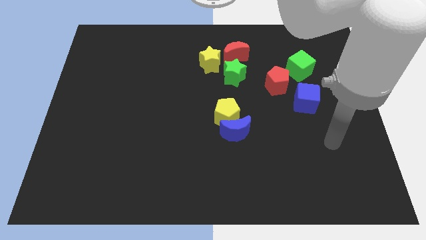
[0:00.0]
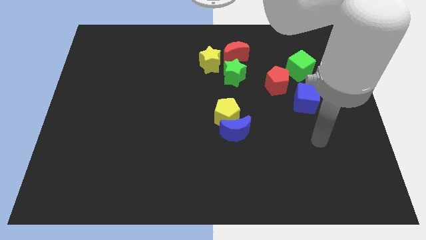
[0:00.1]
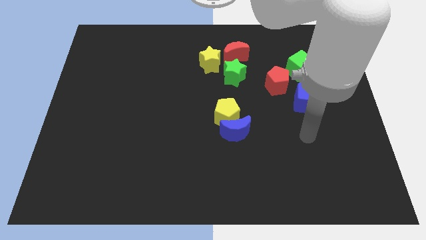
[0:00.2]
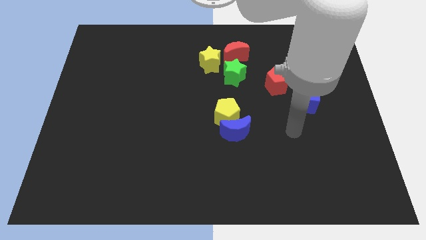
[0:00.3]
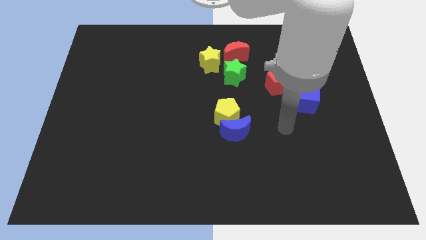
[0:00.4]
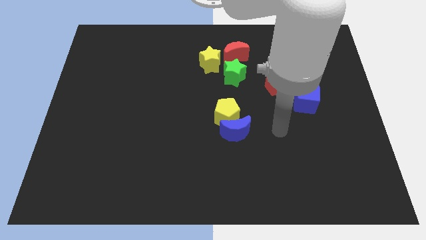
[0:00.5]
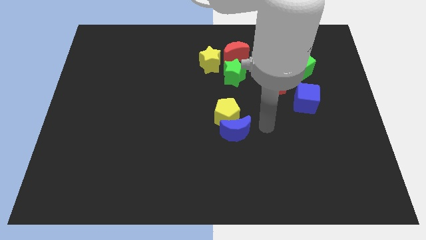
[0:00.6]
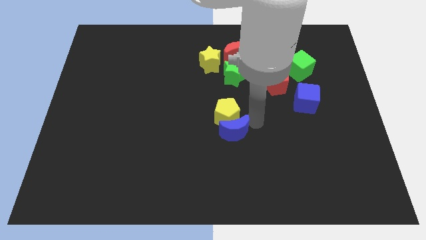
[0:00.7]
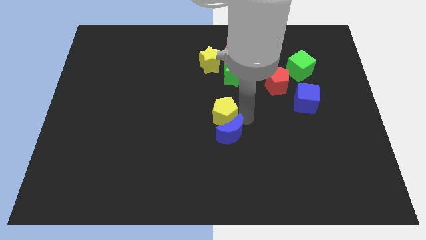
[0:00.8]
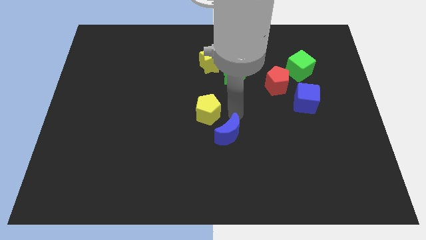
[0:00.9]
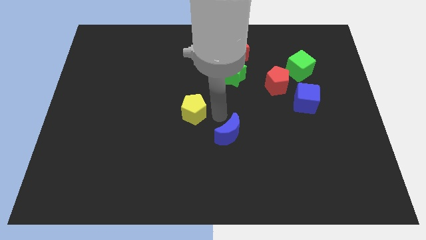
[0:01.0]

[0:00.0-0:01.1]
separate the blue moon from the yellow pentagon

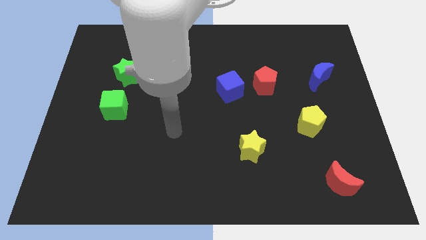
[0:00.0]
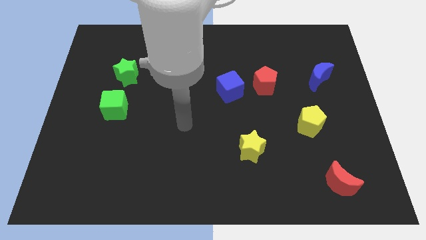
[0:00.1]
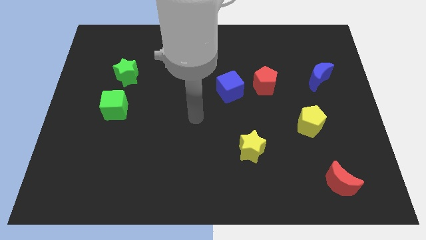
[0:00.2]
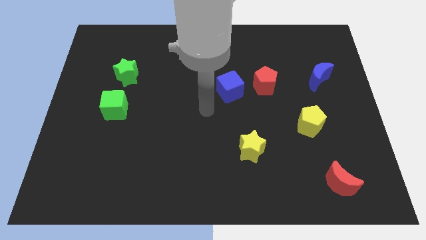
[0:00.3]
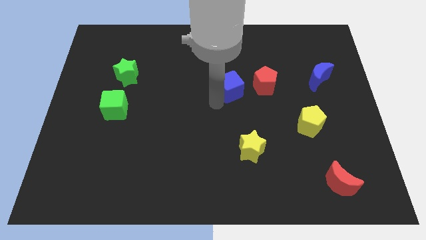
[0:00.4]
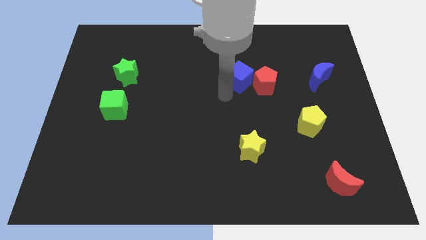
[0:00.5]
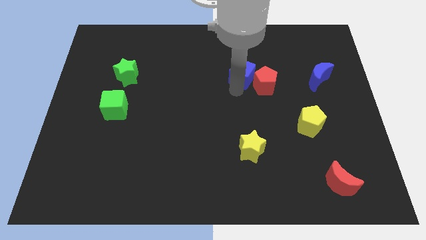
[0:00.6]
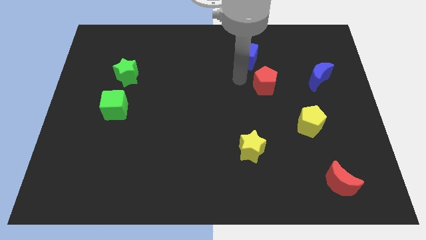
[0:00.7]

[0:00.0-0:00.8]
move the red pentagon away from the blue cube

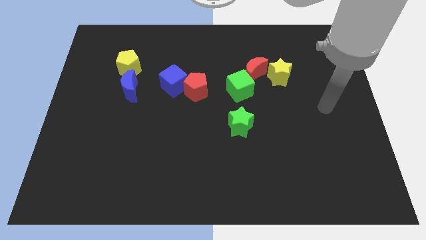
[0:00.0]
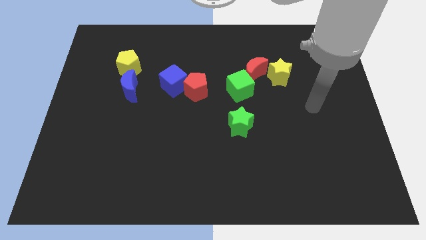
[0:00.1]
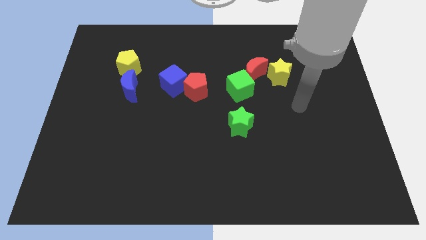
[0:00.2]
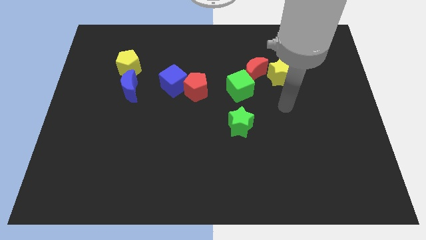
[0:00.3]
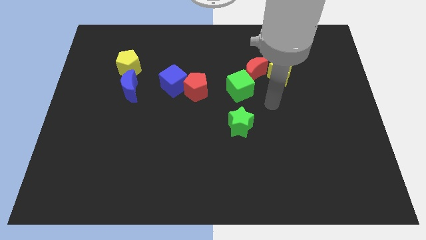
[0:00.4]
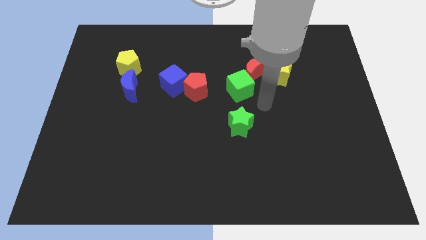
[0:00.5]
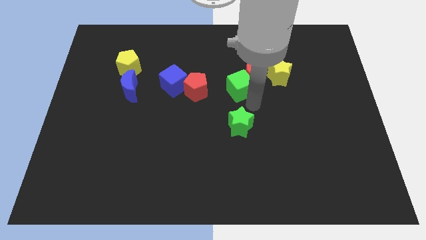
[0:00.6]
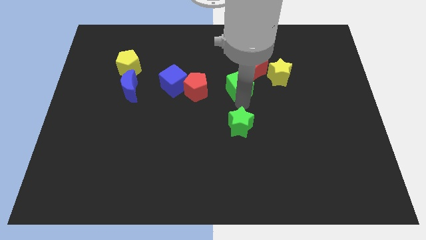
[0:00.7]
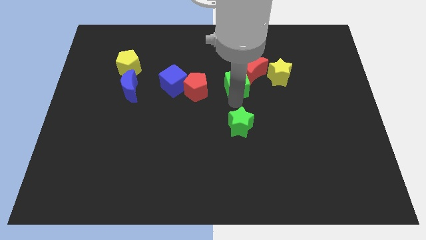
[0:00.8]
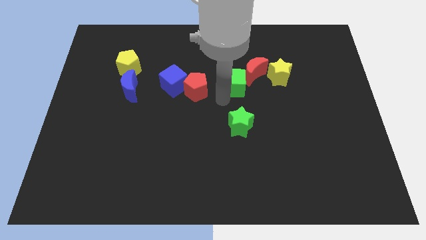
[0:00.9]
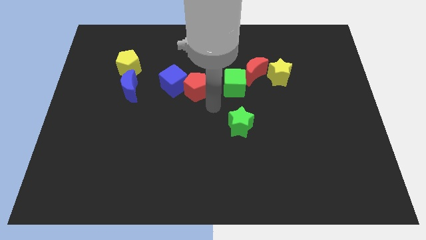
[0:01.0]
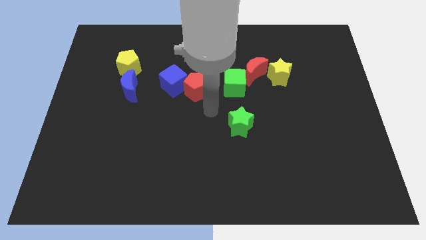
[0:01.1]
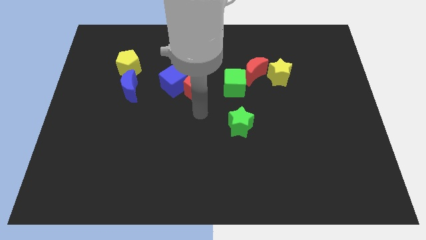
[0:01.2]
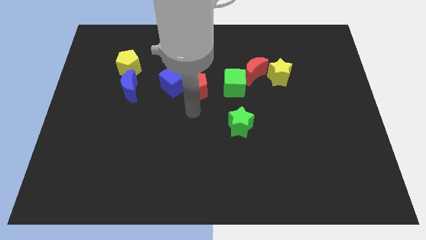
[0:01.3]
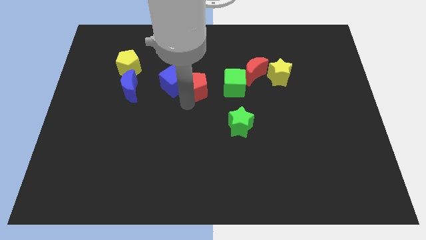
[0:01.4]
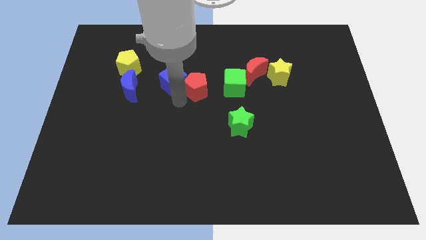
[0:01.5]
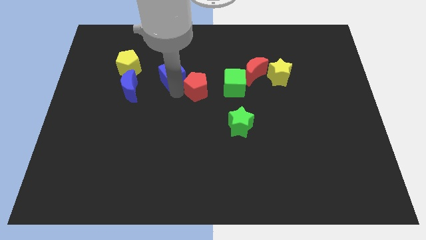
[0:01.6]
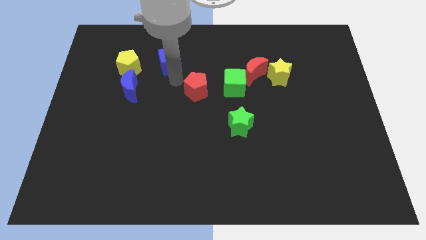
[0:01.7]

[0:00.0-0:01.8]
separate the red pentagon from the blue cube

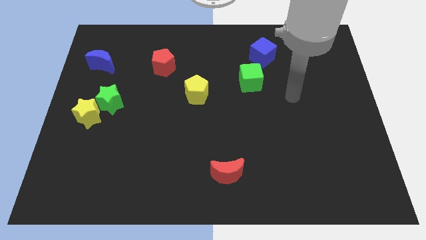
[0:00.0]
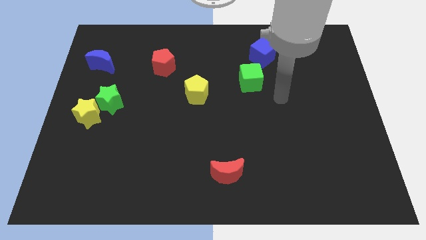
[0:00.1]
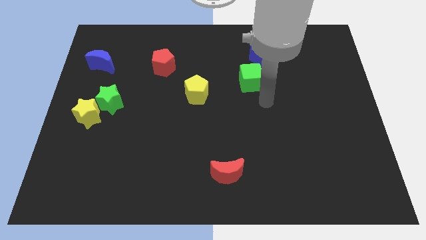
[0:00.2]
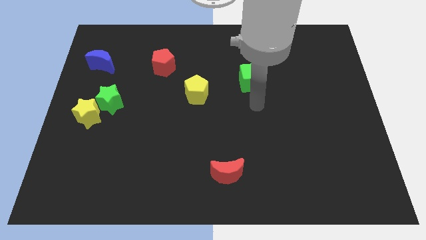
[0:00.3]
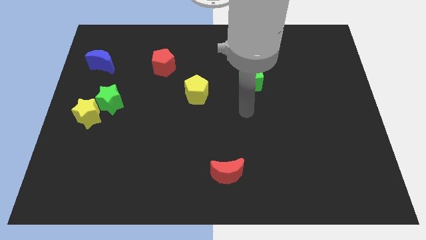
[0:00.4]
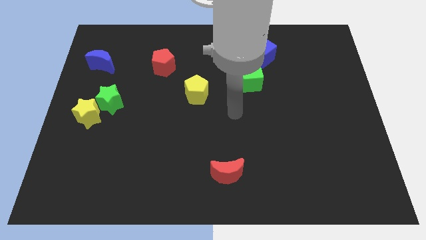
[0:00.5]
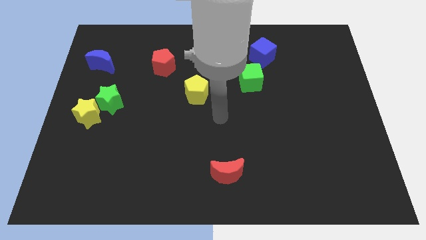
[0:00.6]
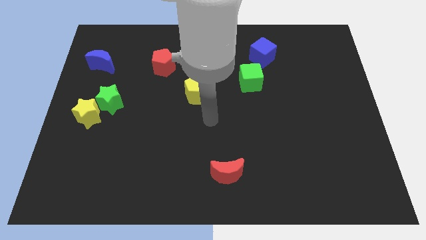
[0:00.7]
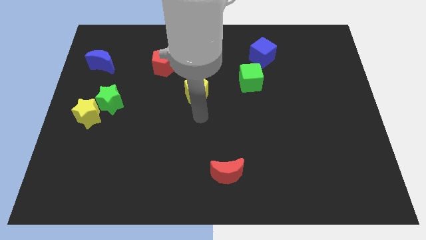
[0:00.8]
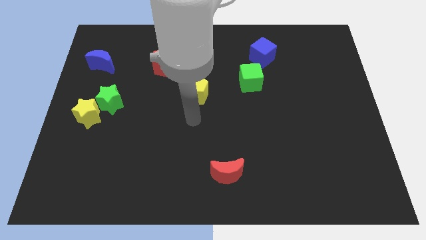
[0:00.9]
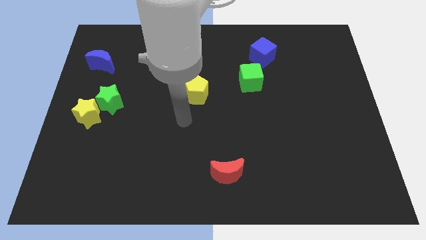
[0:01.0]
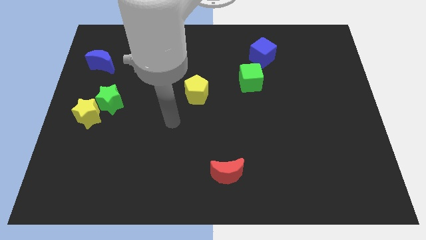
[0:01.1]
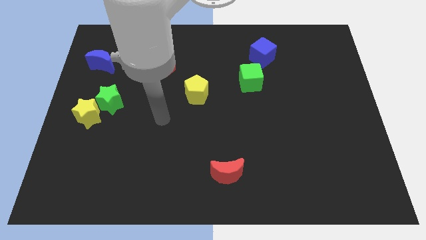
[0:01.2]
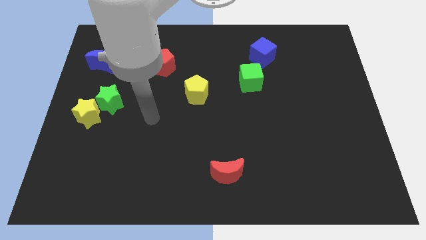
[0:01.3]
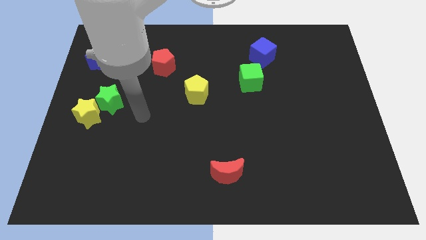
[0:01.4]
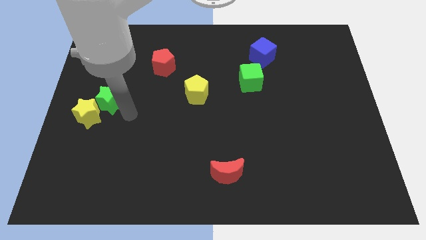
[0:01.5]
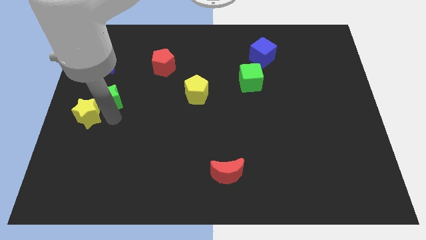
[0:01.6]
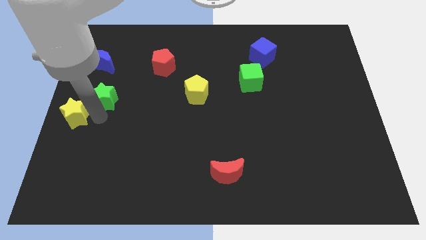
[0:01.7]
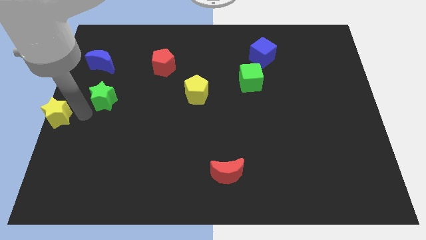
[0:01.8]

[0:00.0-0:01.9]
separate the green star from the yellow star

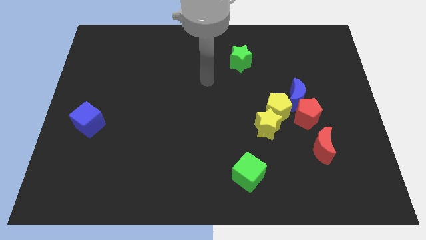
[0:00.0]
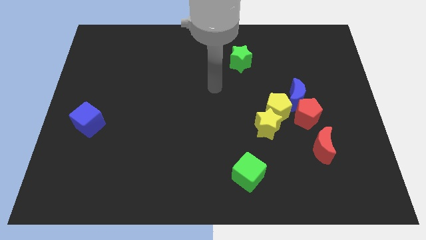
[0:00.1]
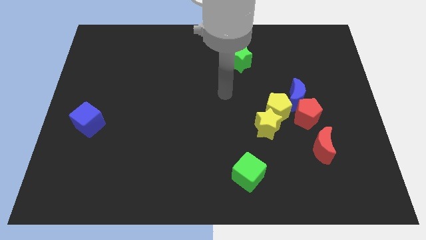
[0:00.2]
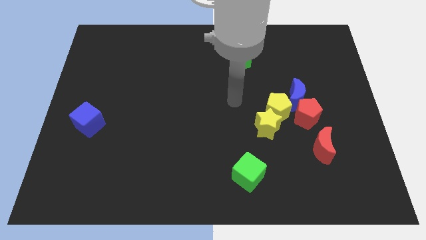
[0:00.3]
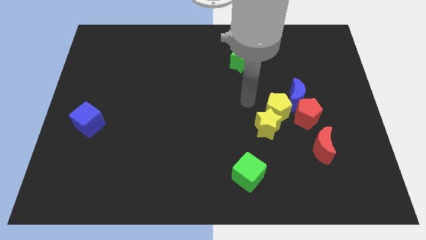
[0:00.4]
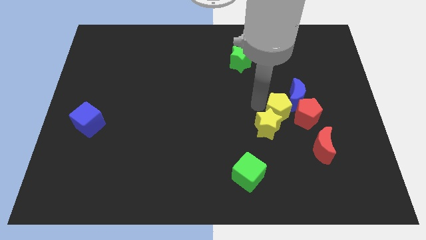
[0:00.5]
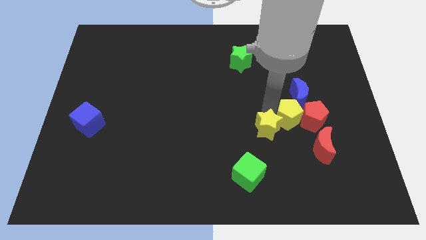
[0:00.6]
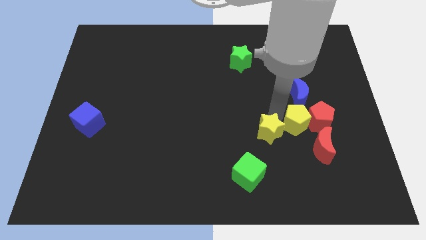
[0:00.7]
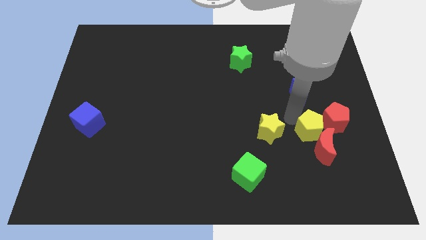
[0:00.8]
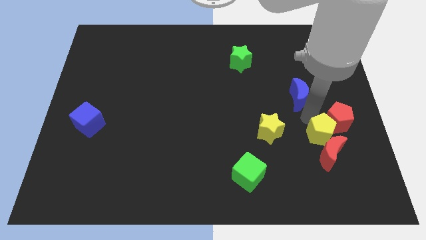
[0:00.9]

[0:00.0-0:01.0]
move the blue moon away from the red pentagon and yellow pentagon

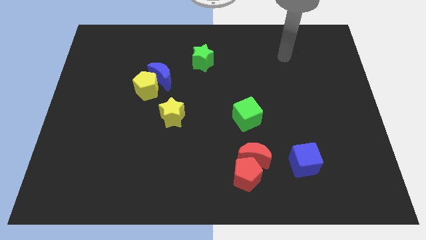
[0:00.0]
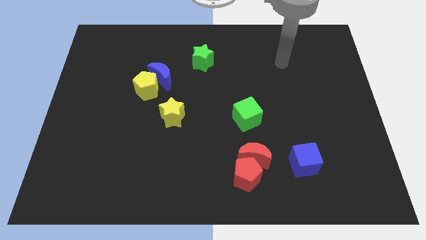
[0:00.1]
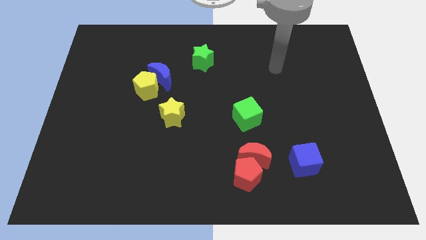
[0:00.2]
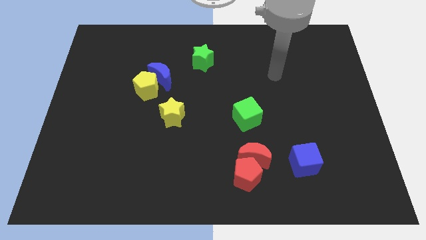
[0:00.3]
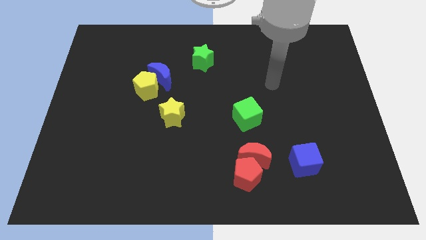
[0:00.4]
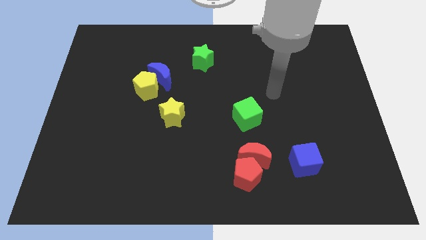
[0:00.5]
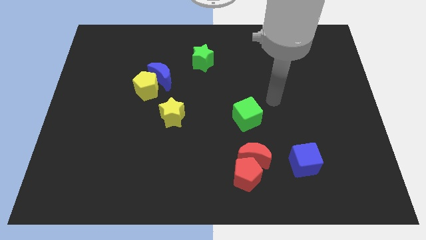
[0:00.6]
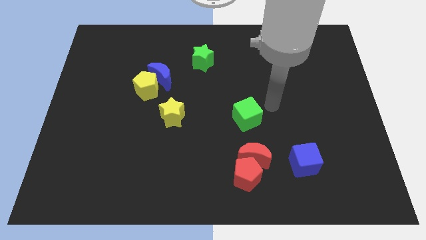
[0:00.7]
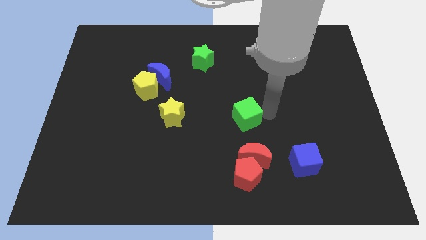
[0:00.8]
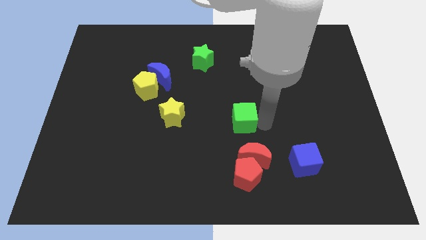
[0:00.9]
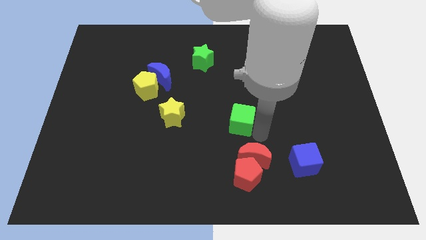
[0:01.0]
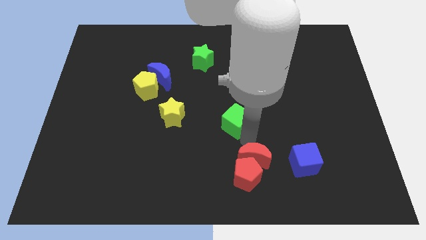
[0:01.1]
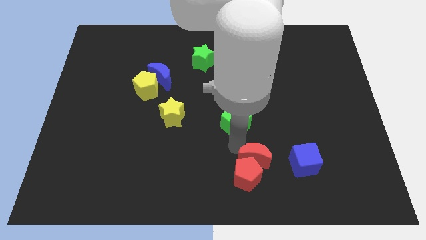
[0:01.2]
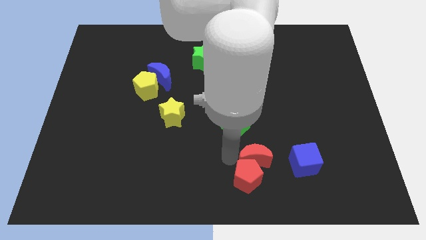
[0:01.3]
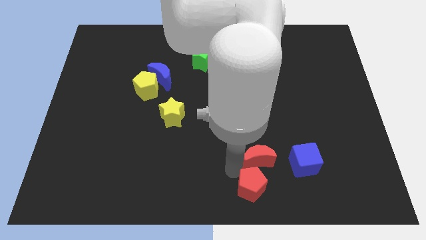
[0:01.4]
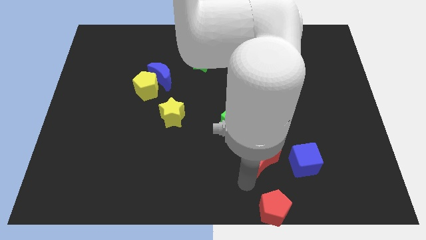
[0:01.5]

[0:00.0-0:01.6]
pull the red moon apart from the red pentagon

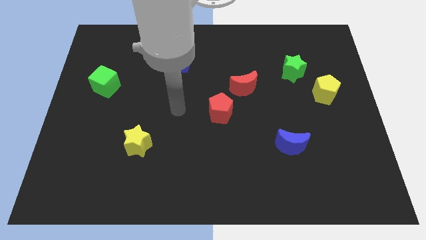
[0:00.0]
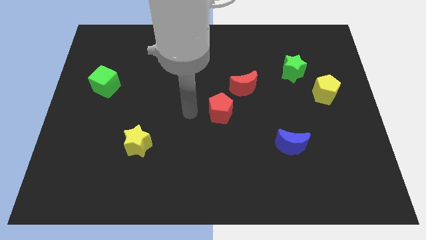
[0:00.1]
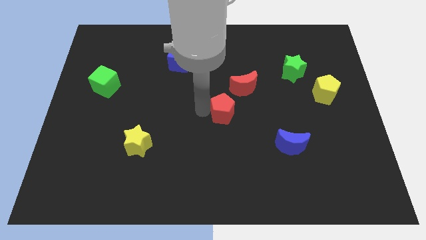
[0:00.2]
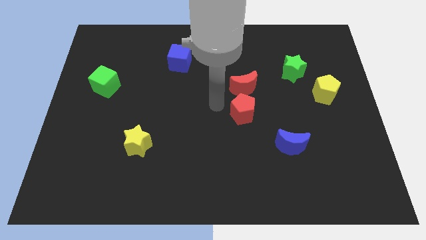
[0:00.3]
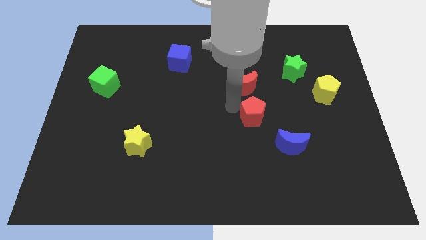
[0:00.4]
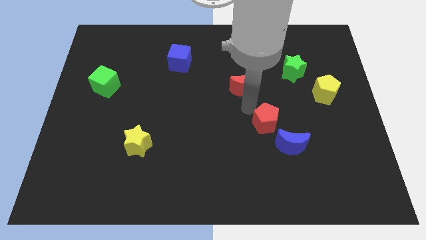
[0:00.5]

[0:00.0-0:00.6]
move the red moon away from the red pentagon

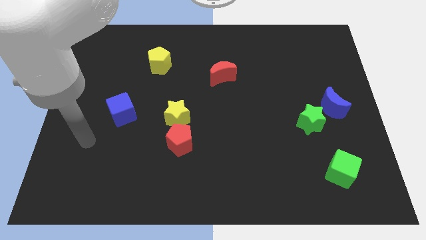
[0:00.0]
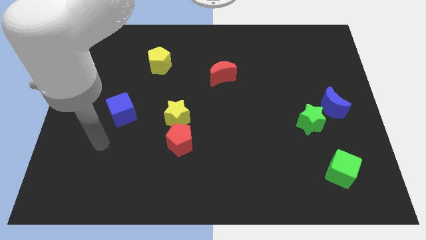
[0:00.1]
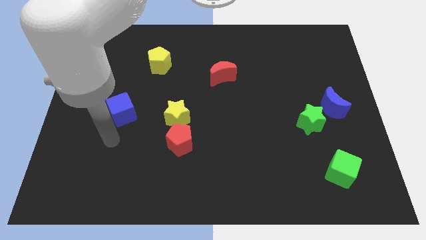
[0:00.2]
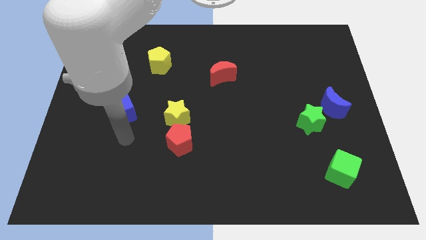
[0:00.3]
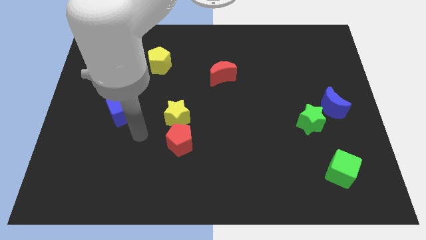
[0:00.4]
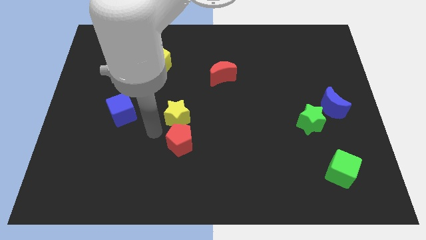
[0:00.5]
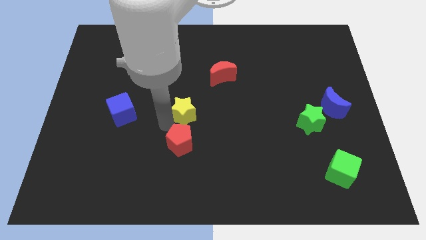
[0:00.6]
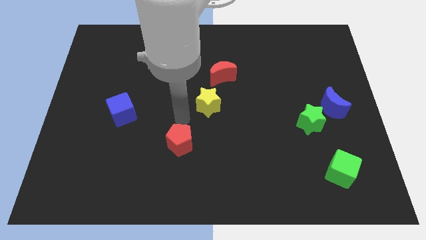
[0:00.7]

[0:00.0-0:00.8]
pull the red pentagon apart from the yellow star
